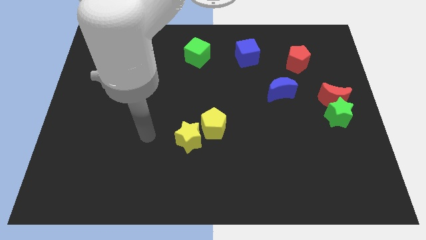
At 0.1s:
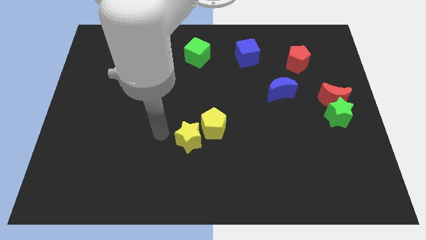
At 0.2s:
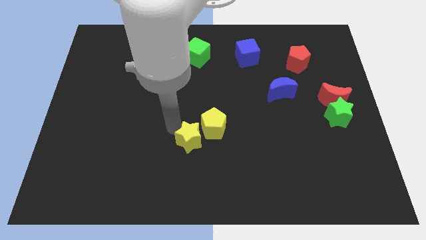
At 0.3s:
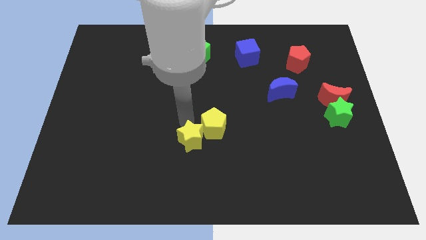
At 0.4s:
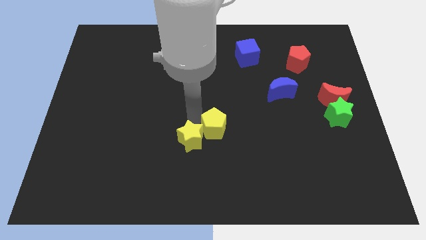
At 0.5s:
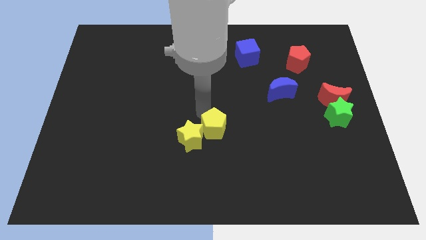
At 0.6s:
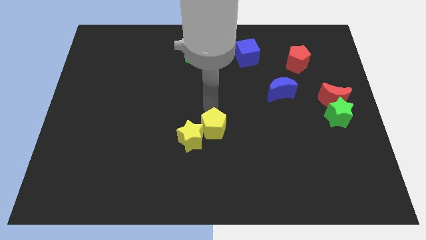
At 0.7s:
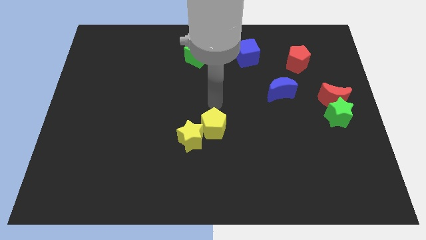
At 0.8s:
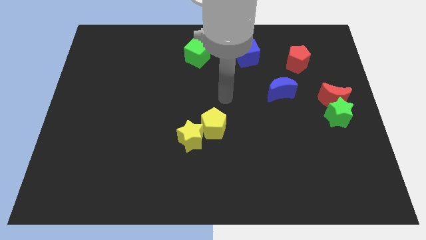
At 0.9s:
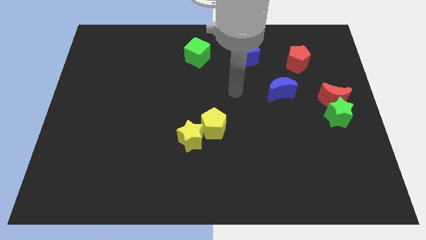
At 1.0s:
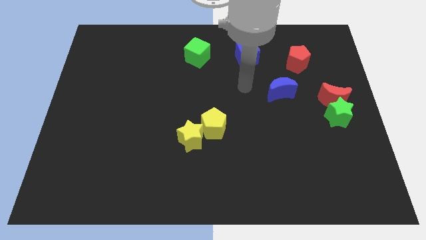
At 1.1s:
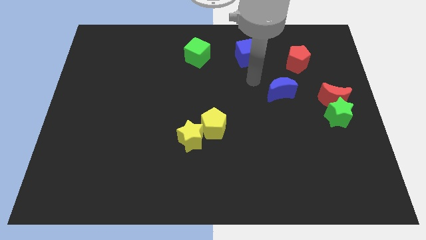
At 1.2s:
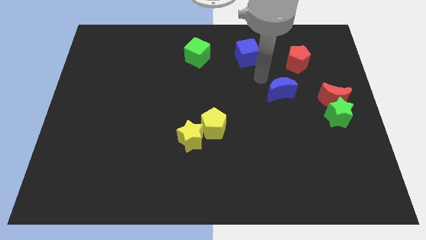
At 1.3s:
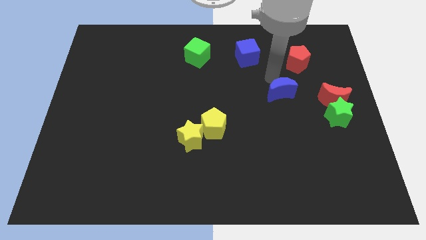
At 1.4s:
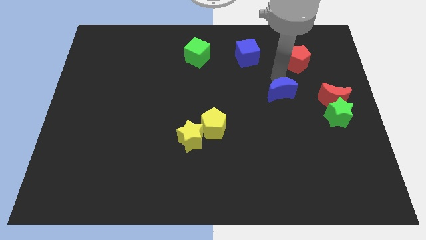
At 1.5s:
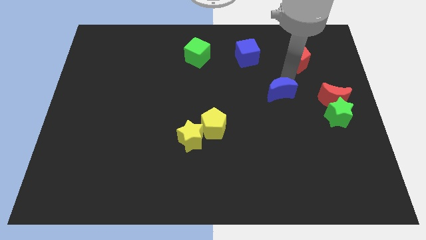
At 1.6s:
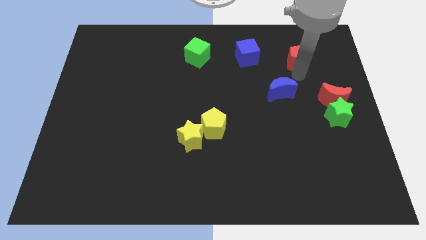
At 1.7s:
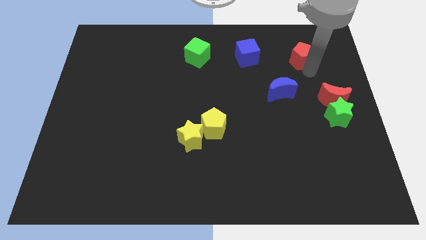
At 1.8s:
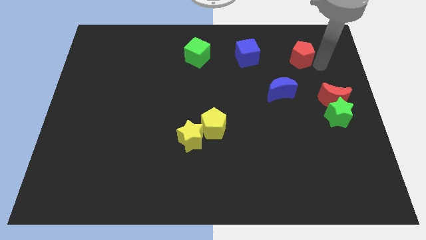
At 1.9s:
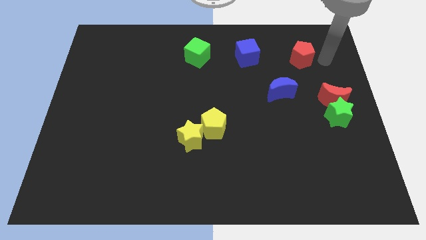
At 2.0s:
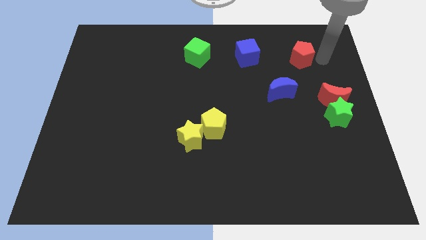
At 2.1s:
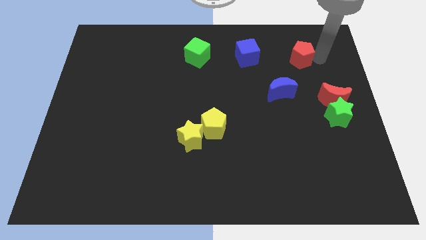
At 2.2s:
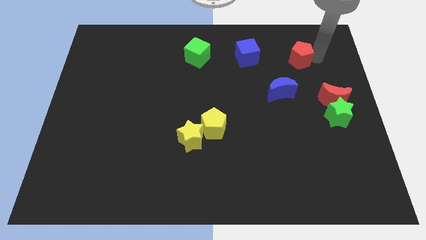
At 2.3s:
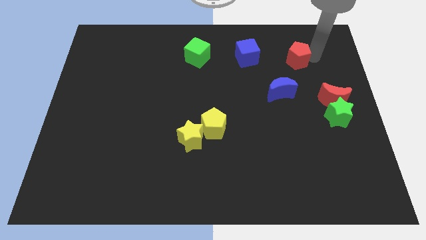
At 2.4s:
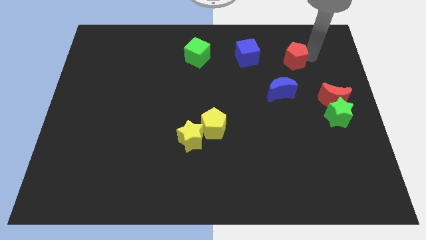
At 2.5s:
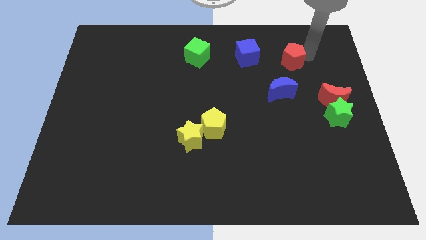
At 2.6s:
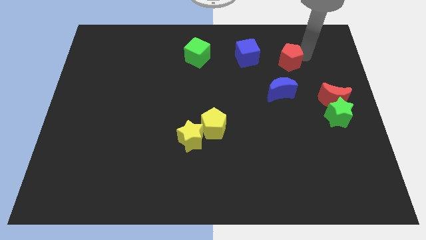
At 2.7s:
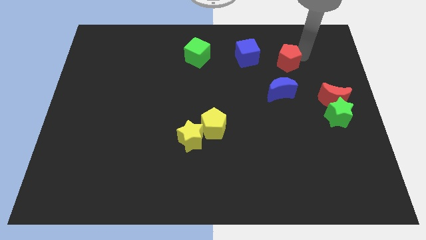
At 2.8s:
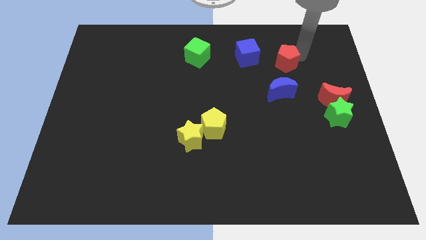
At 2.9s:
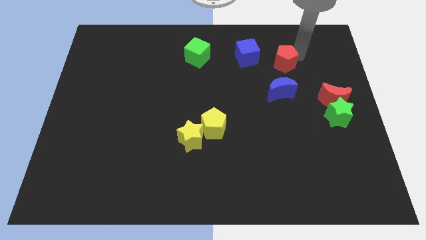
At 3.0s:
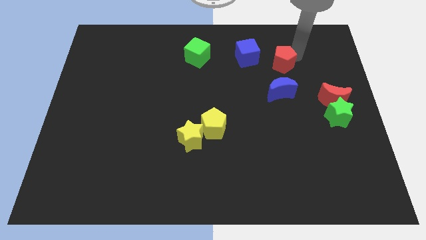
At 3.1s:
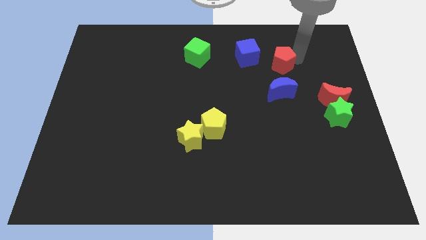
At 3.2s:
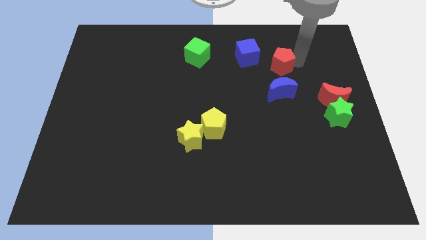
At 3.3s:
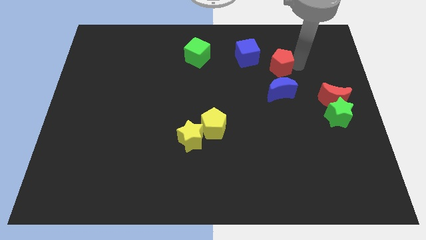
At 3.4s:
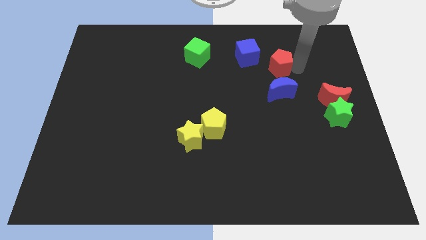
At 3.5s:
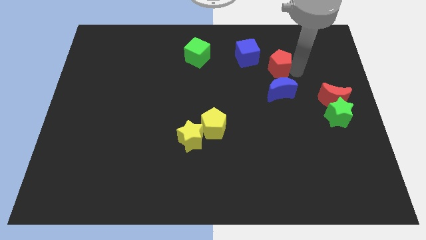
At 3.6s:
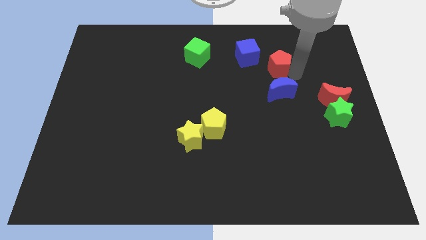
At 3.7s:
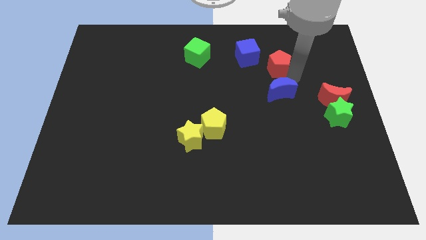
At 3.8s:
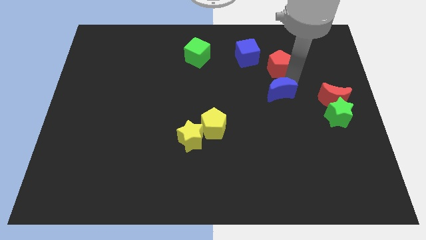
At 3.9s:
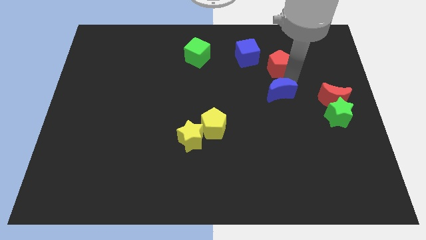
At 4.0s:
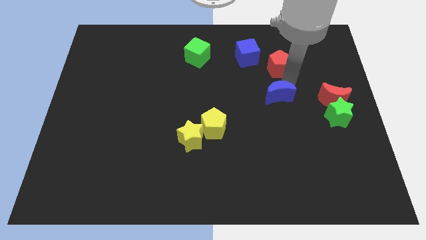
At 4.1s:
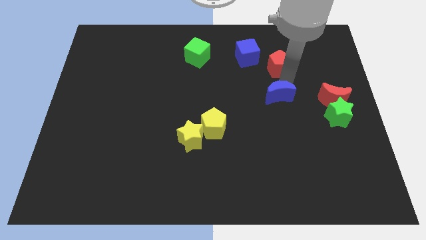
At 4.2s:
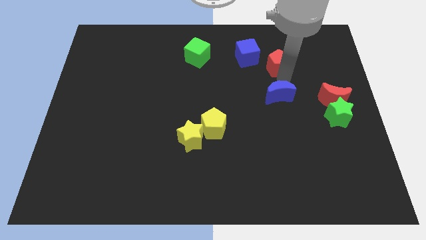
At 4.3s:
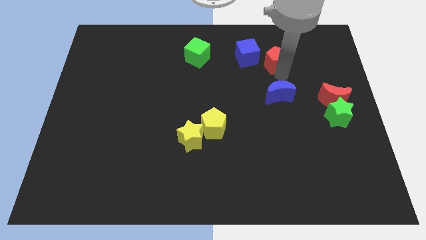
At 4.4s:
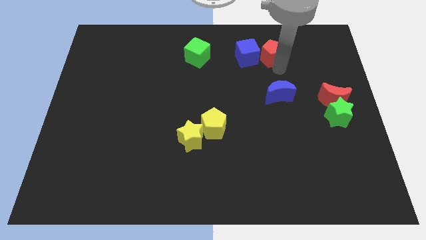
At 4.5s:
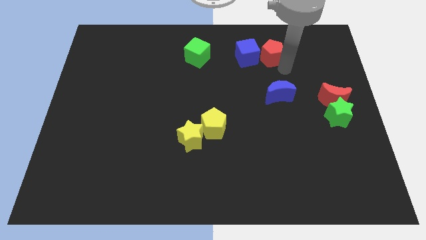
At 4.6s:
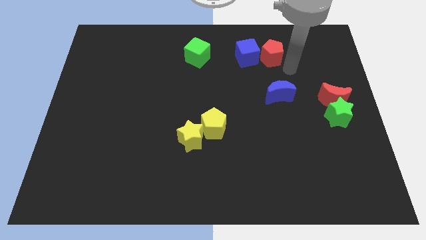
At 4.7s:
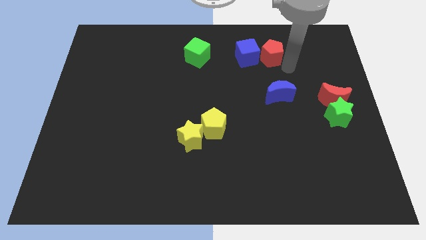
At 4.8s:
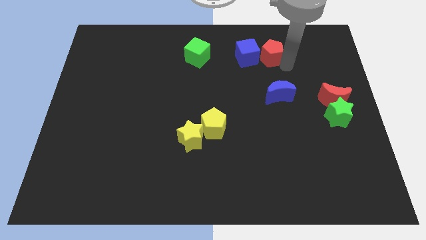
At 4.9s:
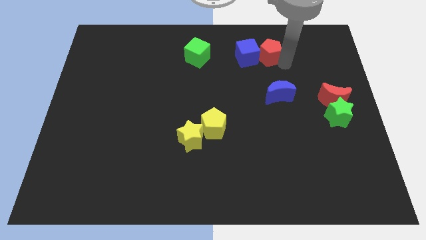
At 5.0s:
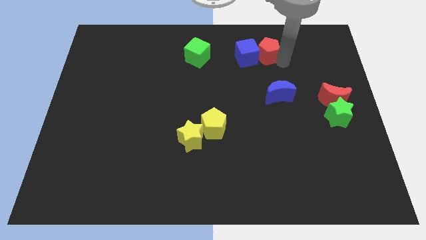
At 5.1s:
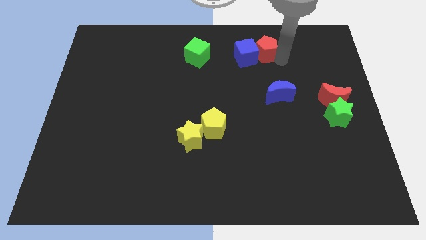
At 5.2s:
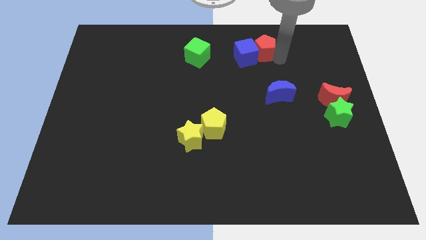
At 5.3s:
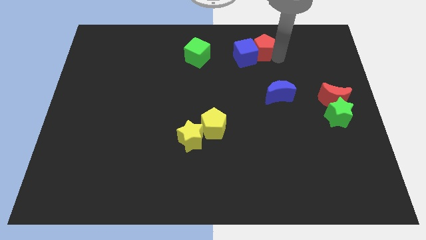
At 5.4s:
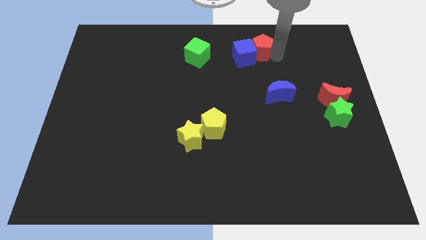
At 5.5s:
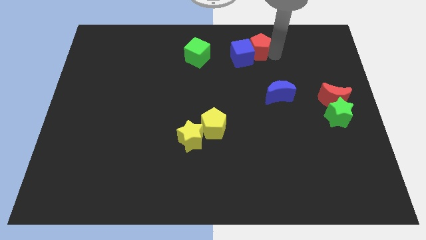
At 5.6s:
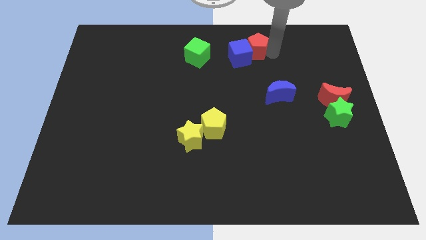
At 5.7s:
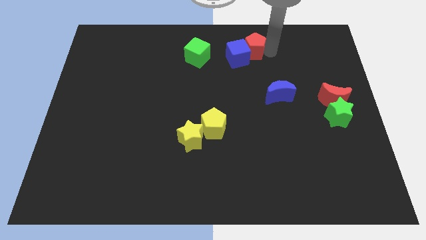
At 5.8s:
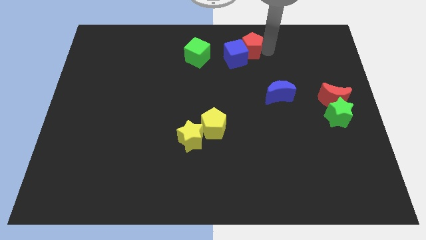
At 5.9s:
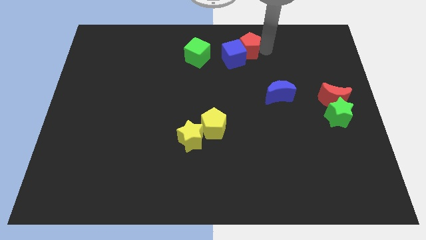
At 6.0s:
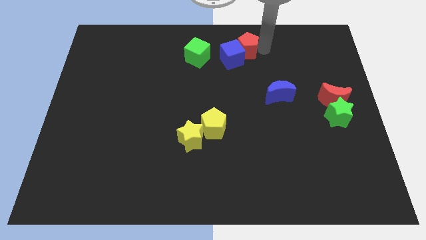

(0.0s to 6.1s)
move the red pentagon to the top side
